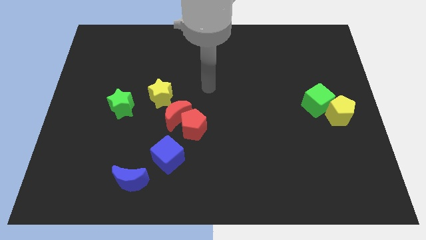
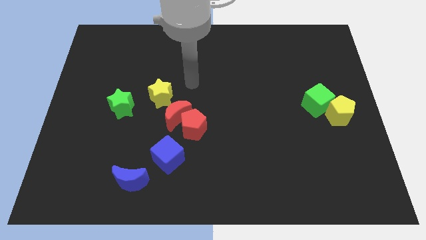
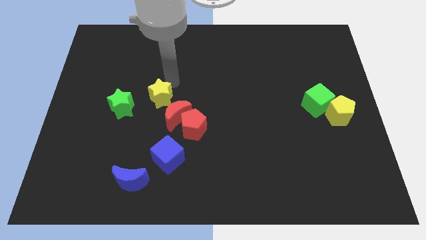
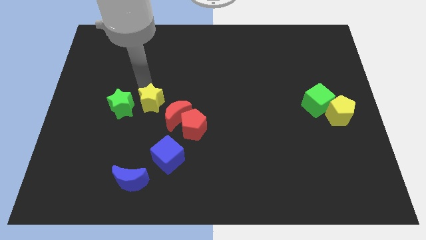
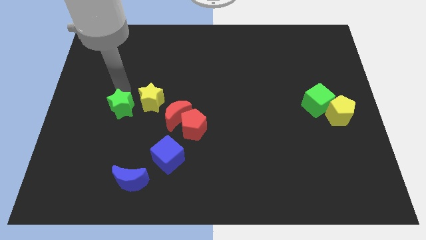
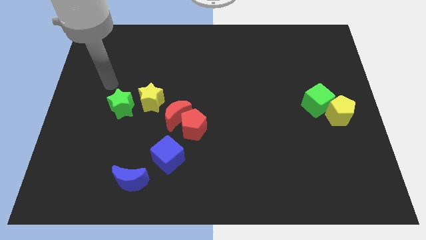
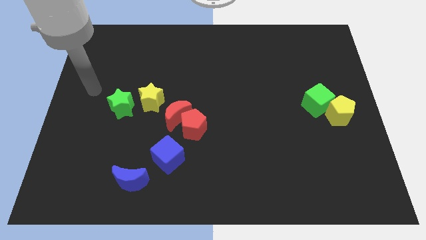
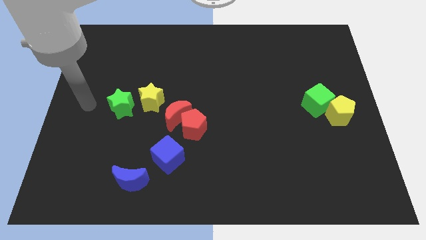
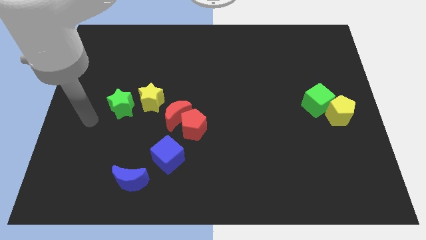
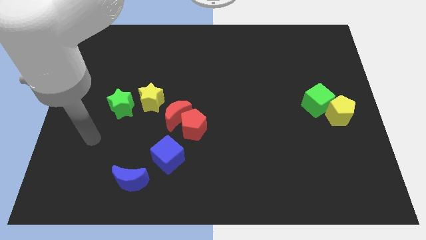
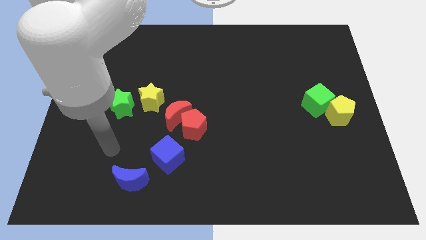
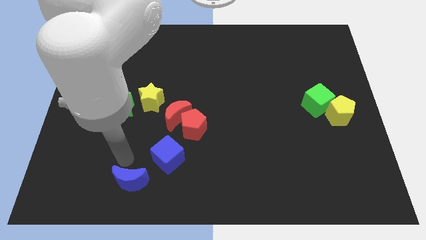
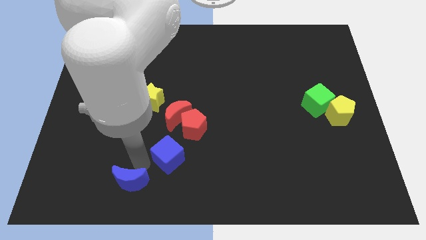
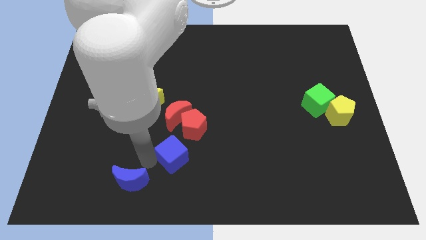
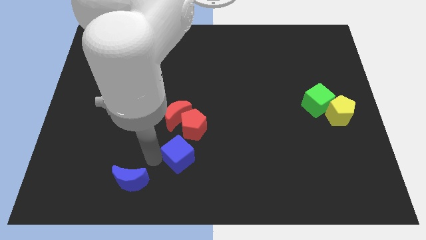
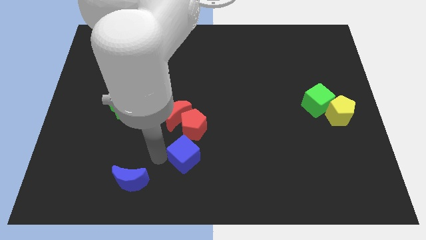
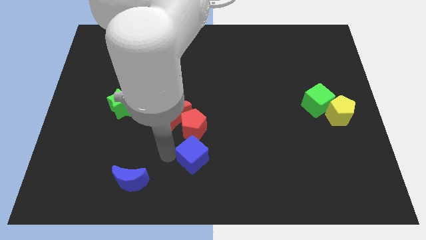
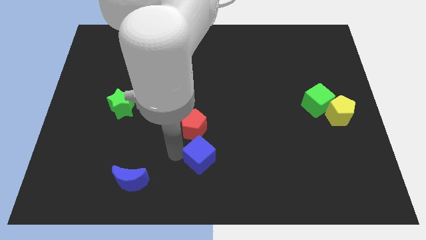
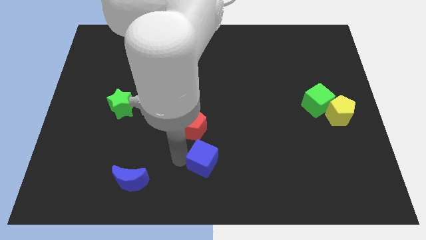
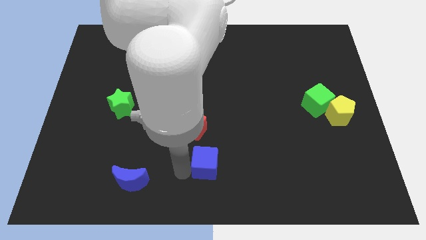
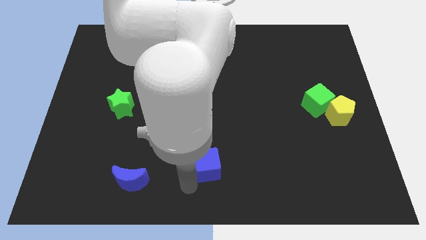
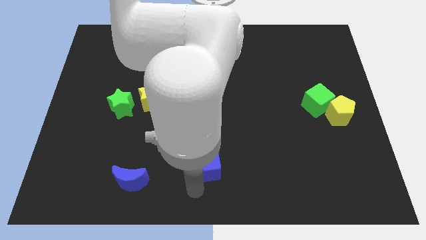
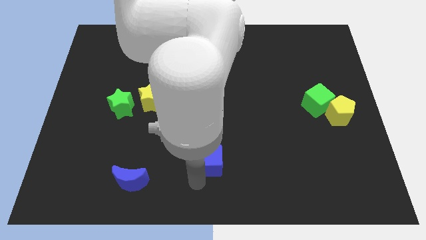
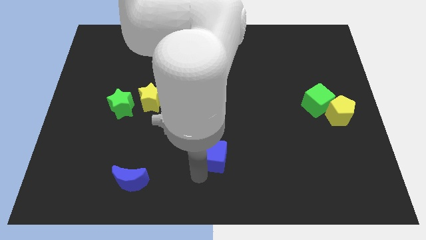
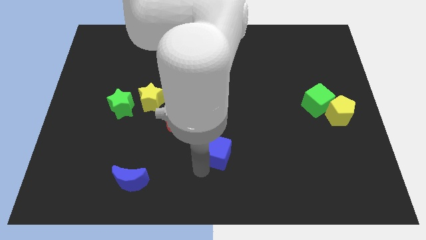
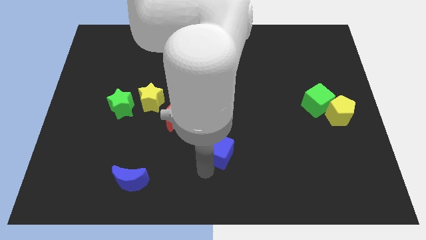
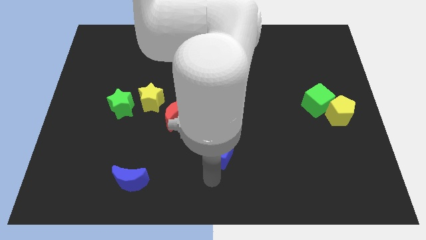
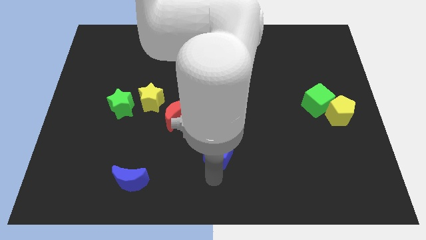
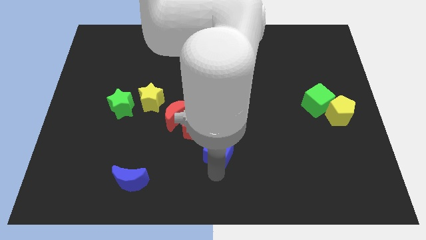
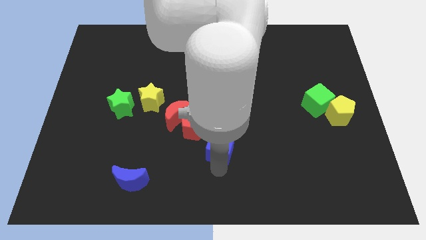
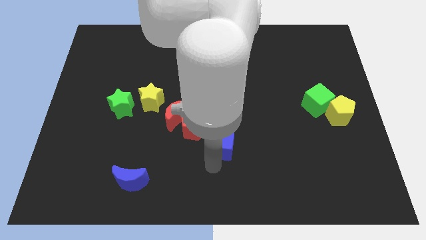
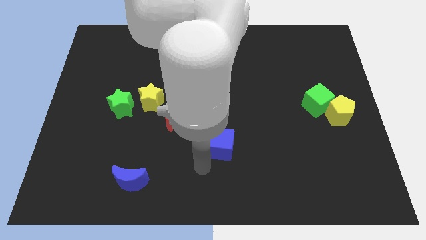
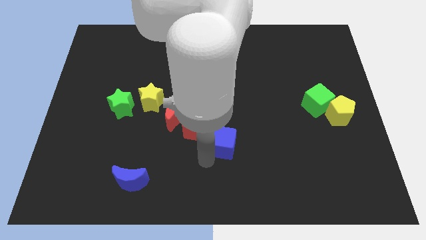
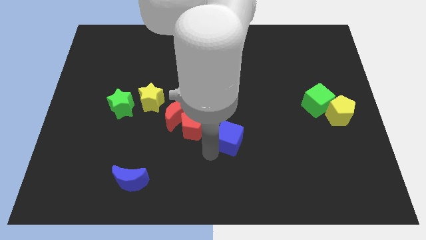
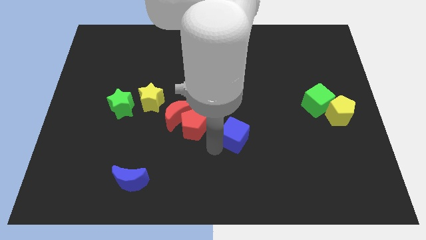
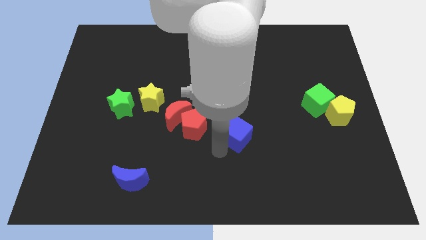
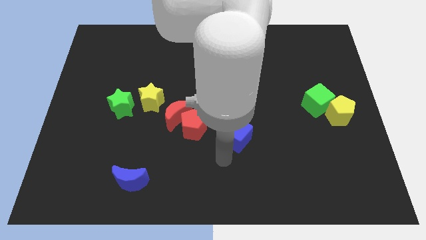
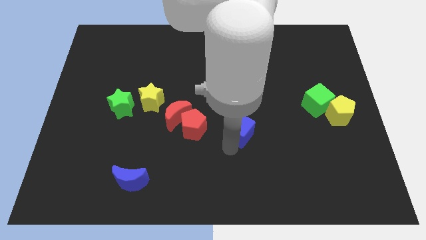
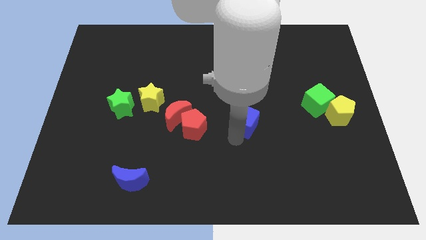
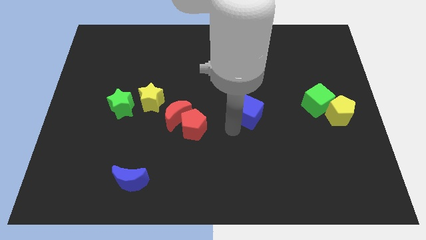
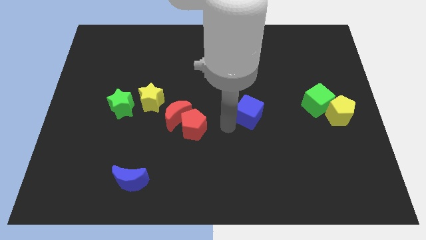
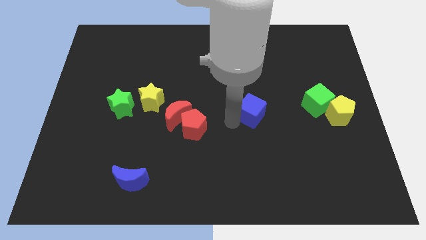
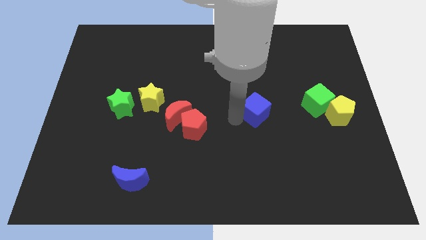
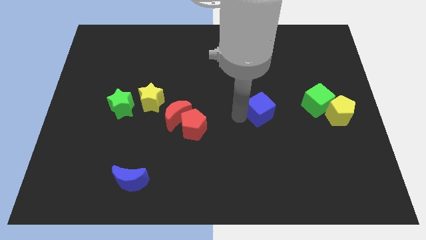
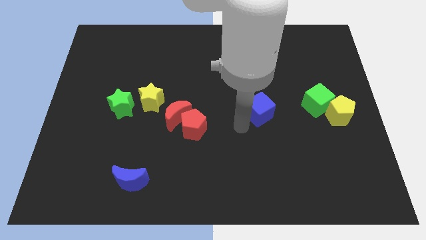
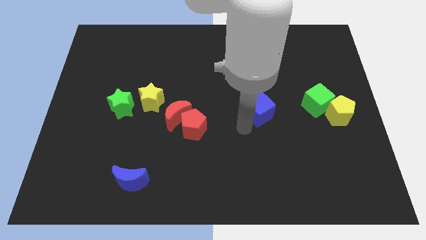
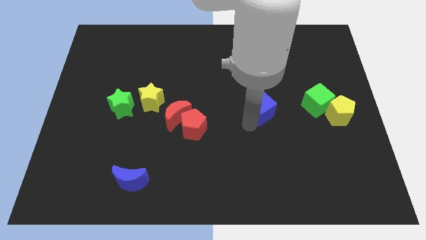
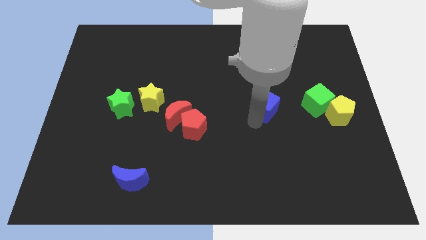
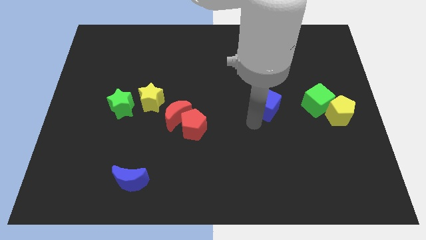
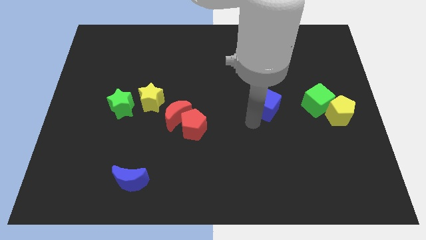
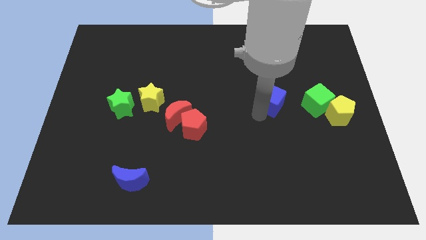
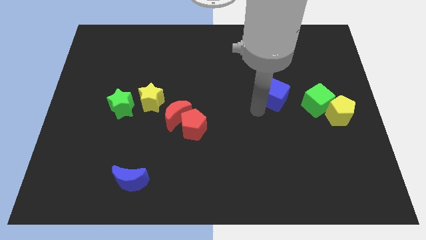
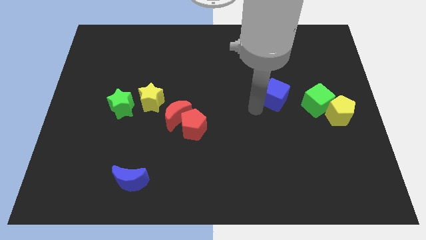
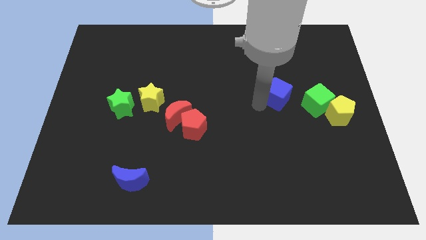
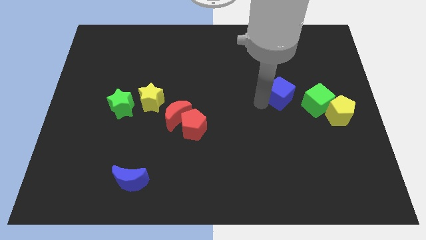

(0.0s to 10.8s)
move the blue cube to the top left side of the green cube

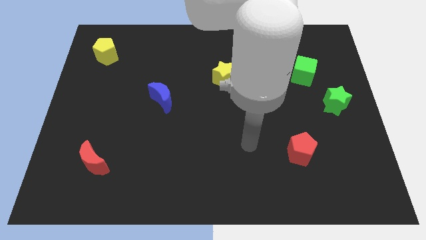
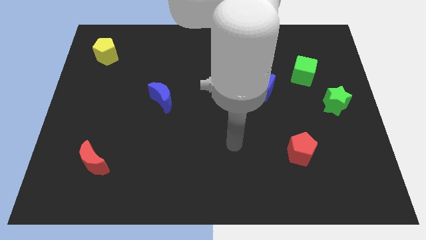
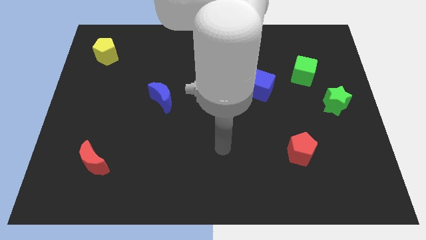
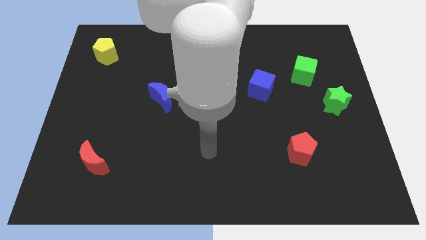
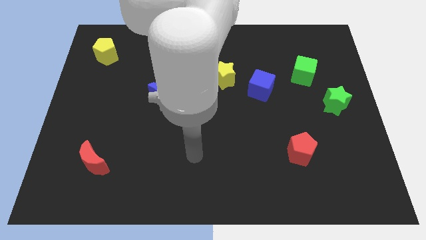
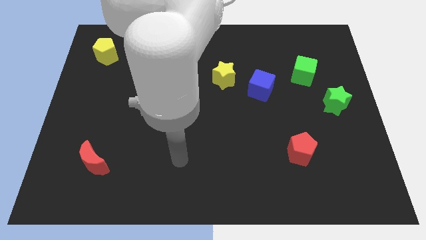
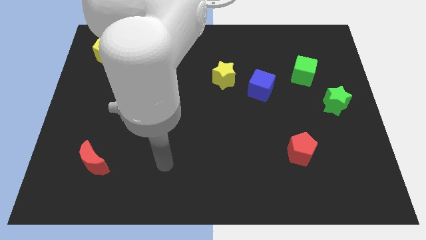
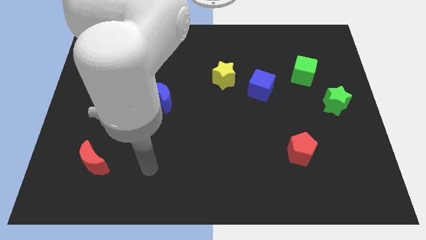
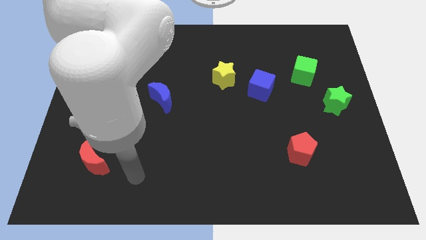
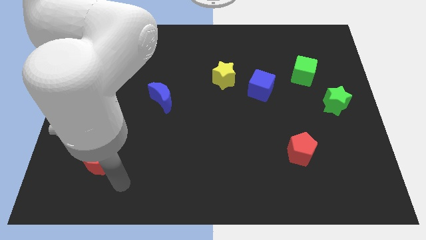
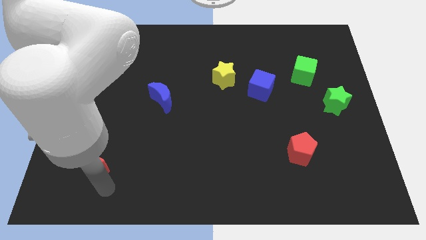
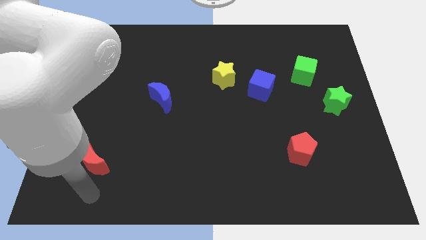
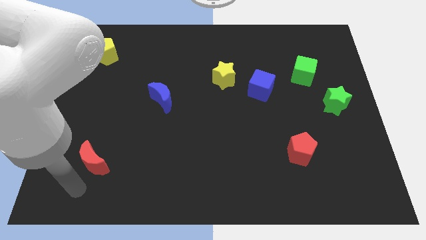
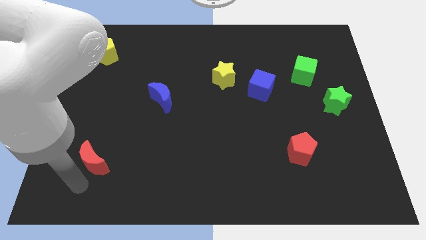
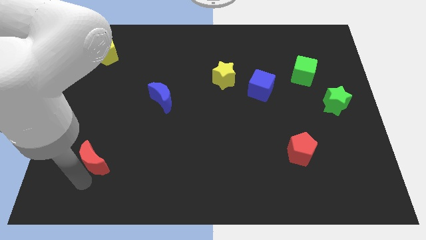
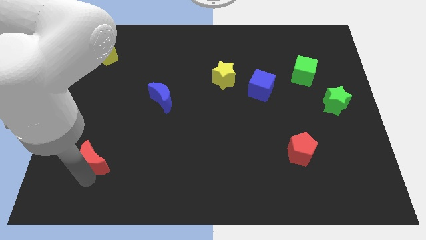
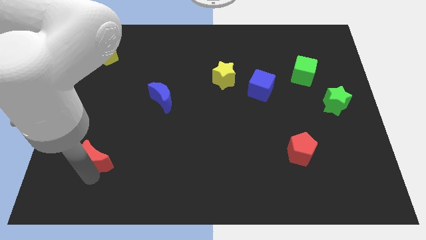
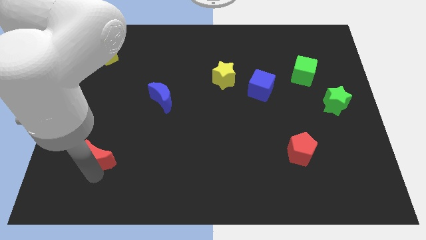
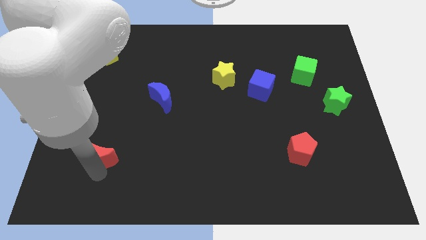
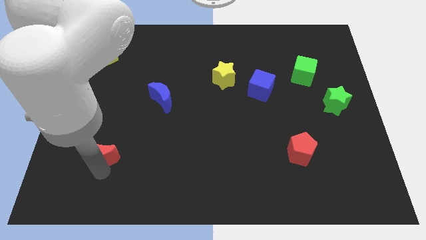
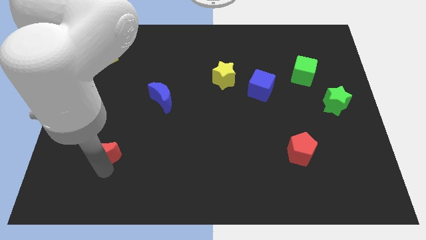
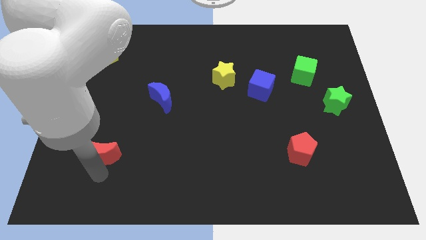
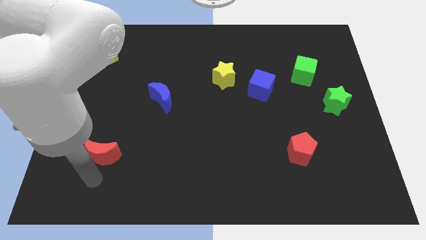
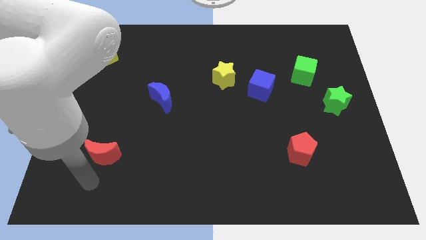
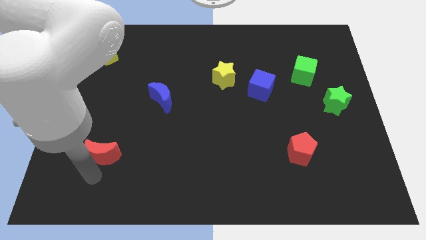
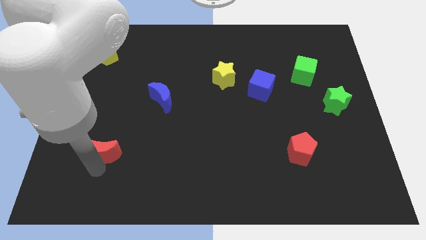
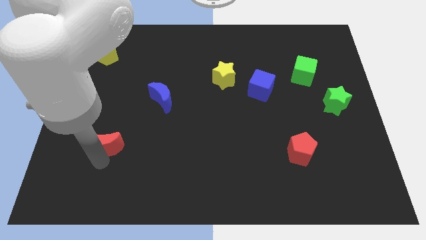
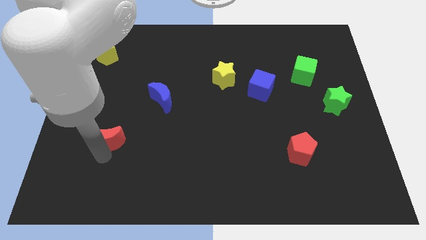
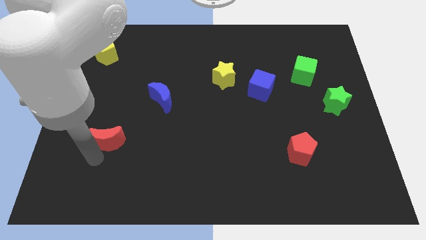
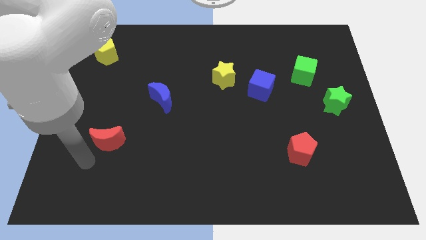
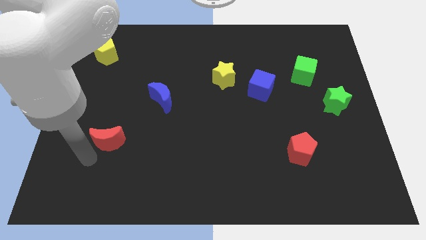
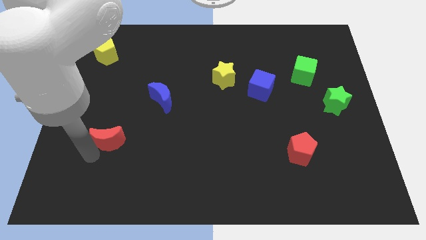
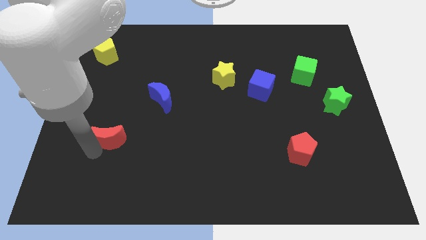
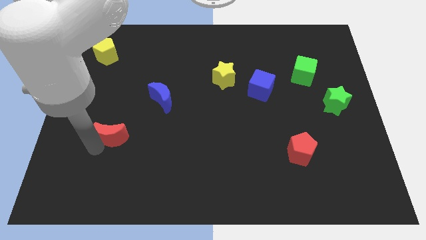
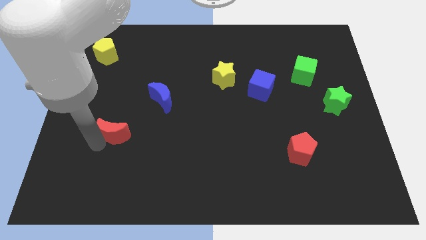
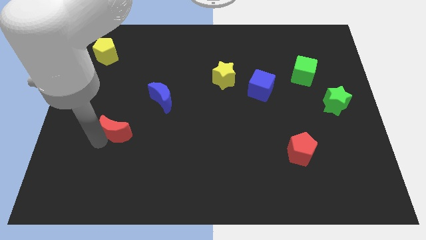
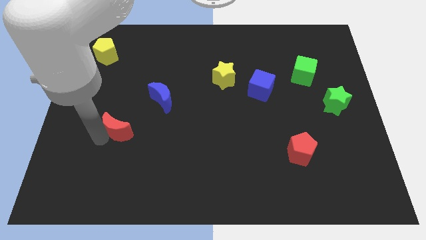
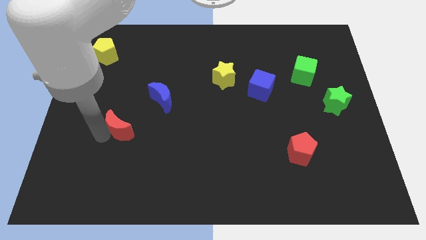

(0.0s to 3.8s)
move the red moon diagonally down and to the left of the blue moon
